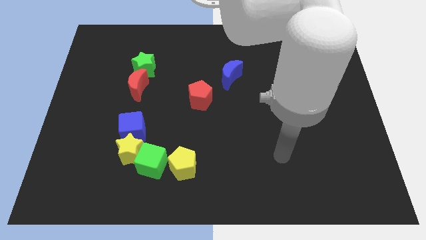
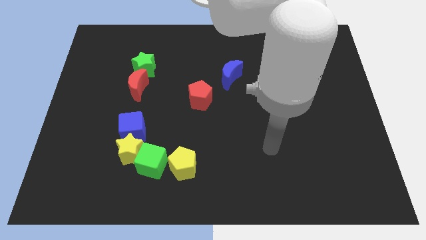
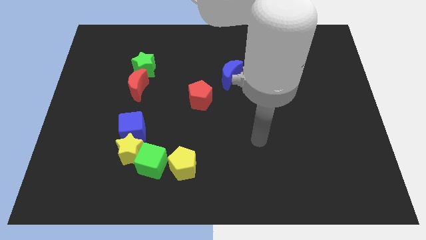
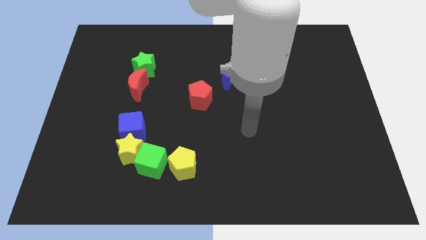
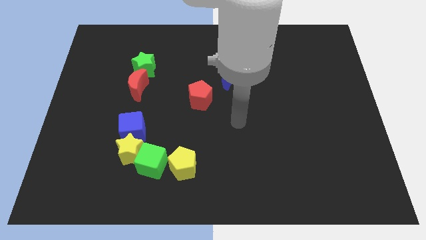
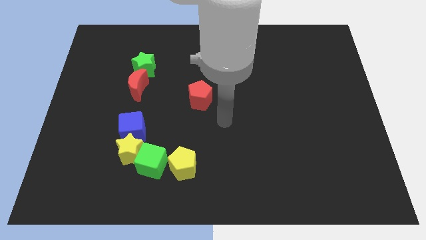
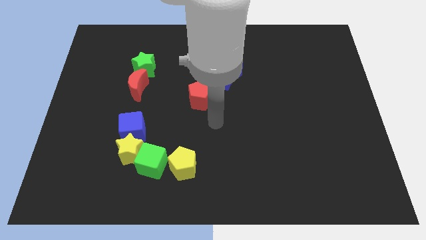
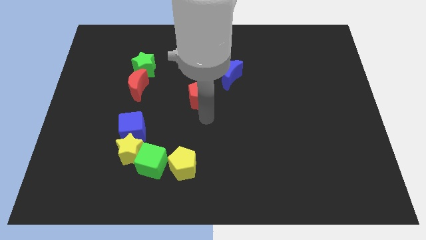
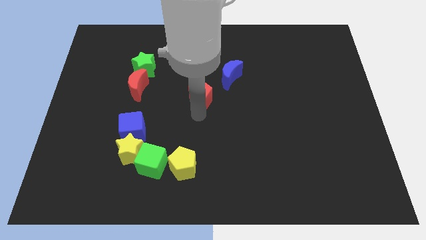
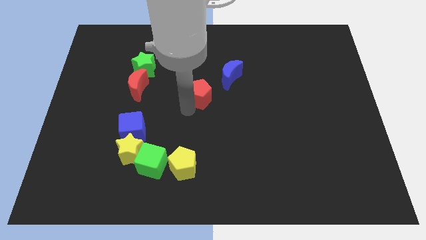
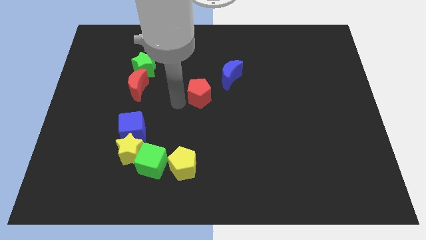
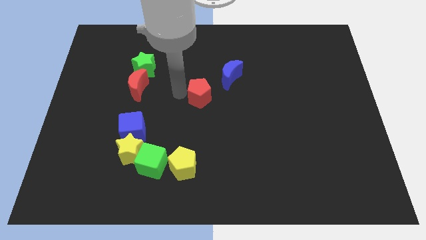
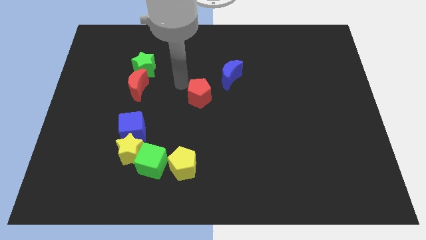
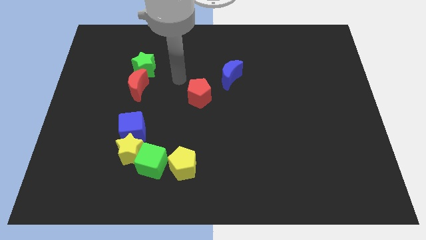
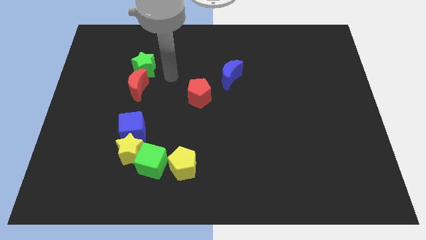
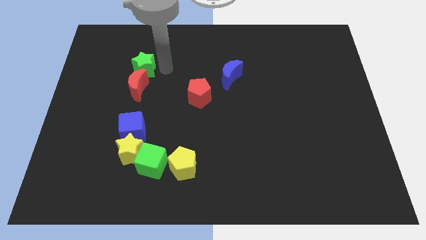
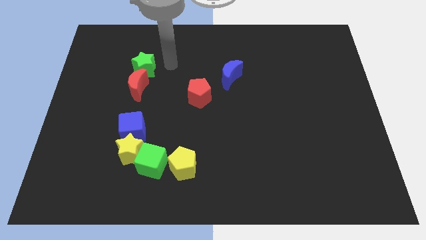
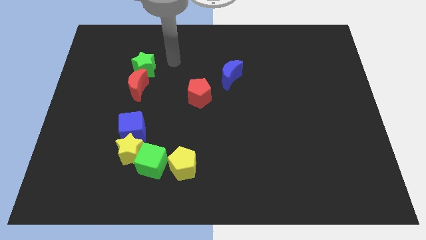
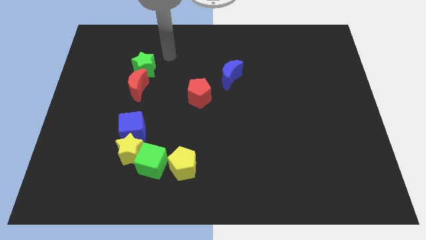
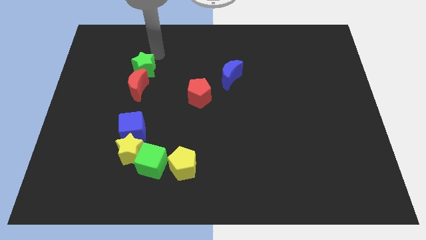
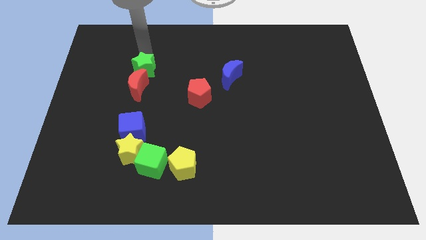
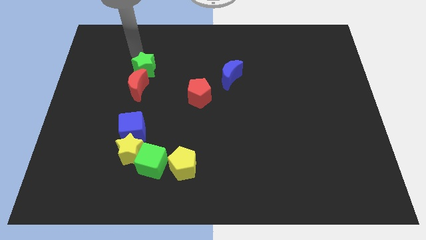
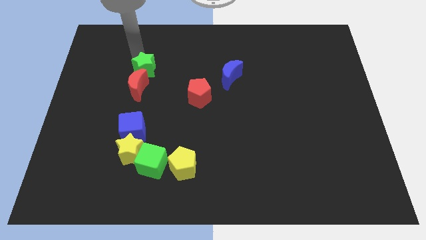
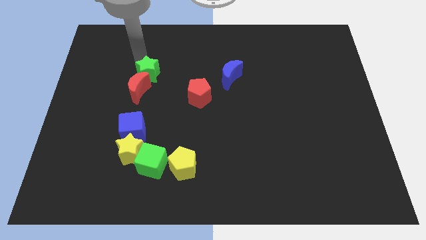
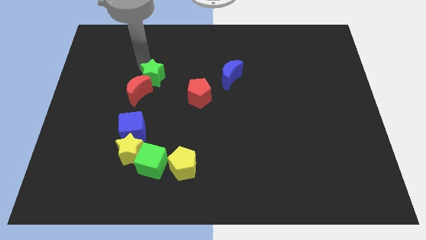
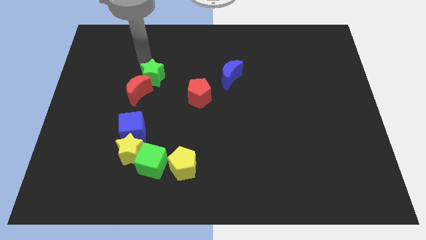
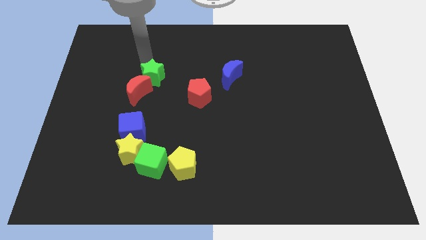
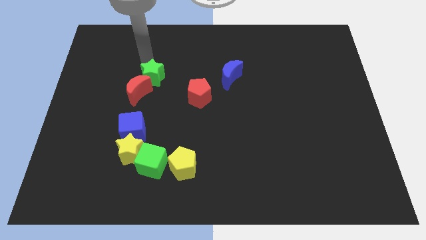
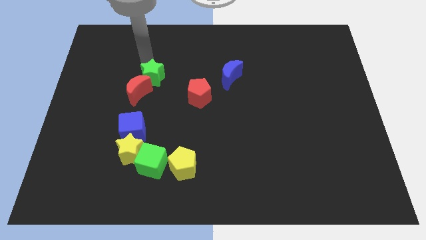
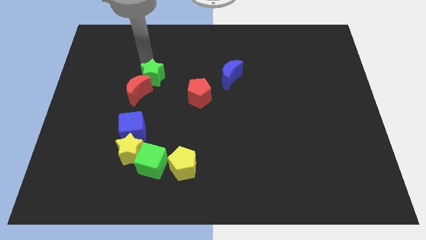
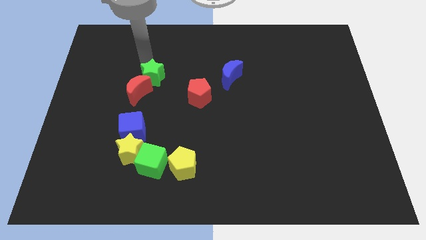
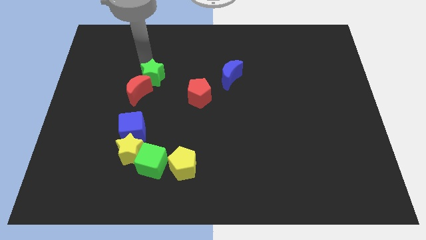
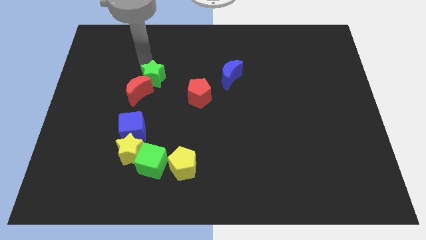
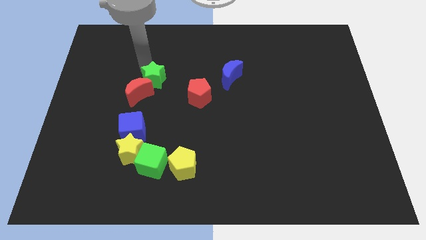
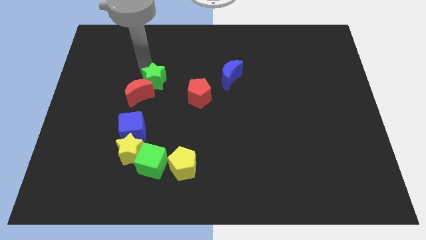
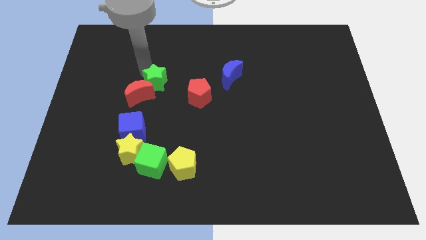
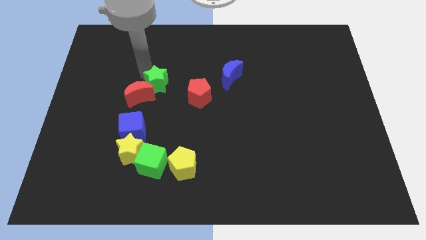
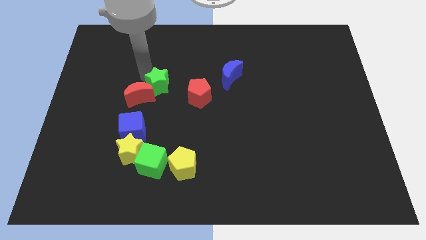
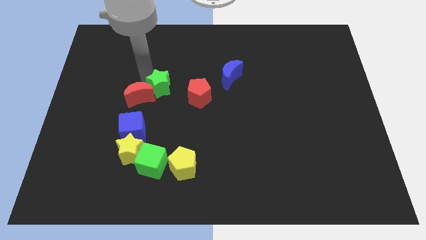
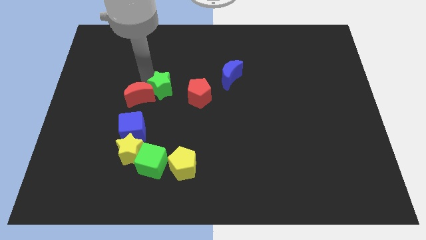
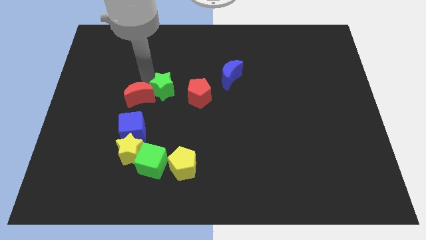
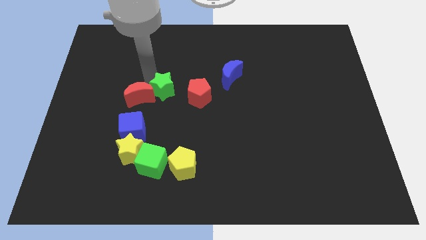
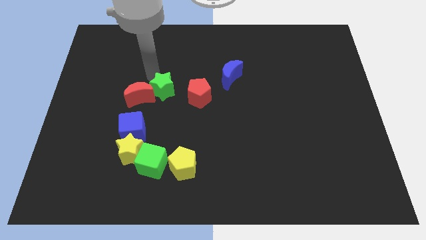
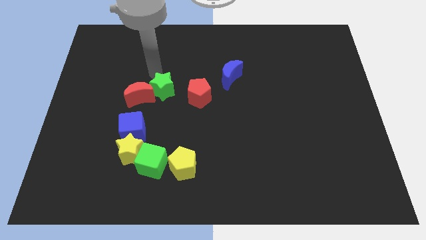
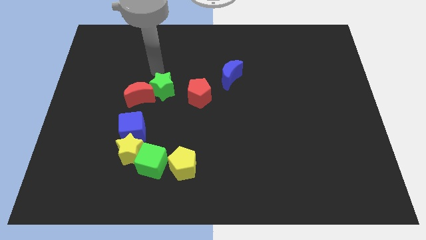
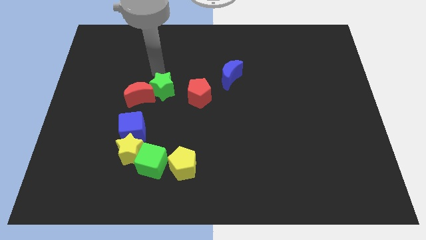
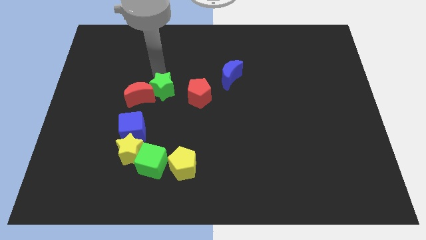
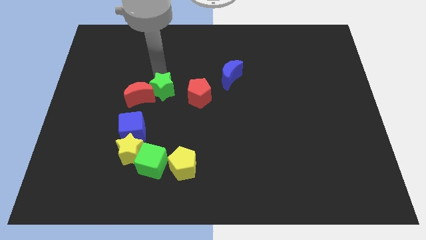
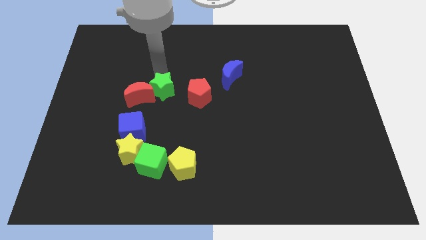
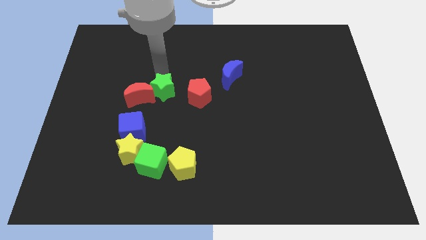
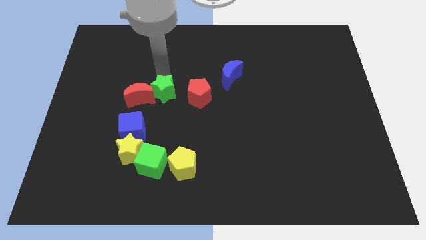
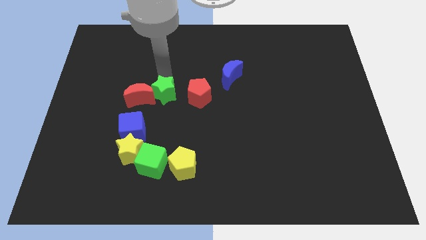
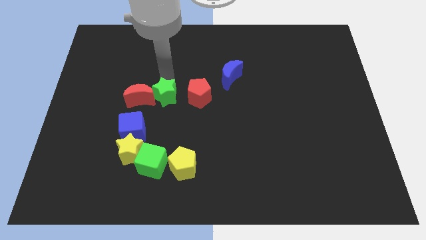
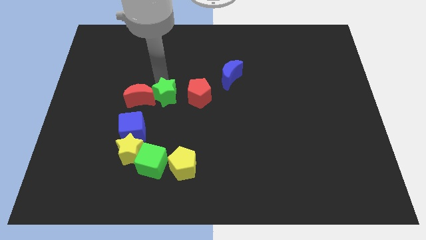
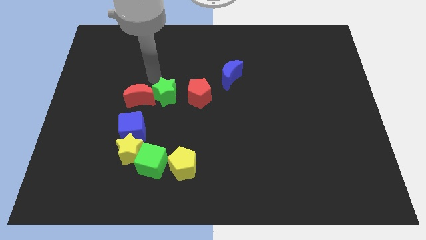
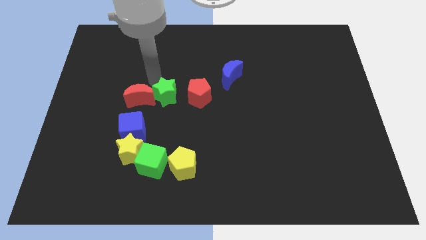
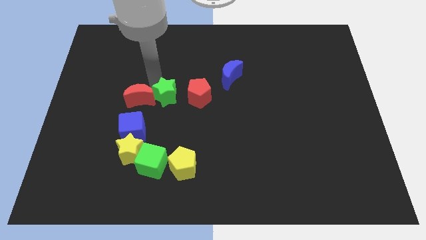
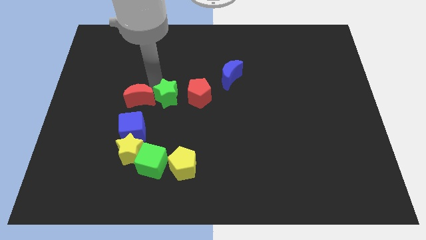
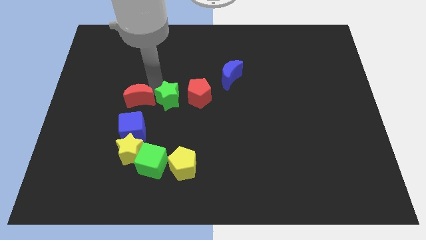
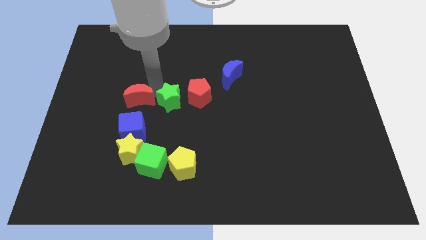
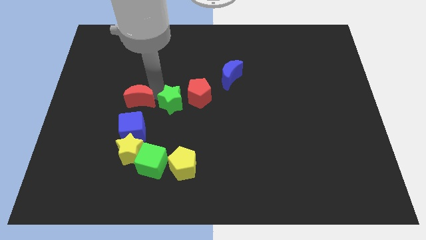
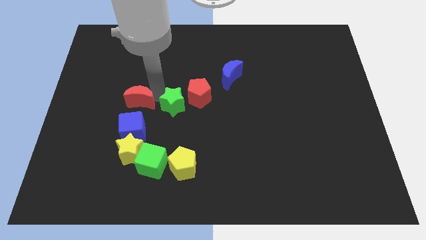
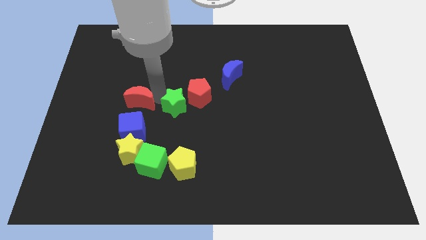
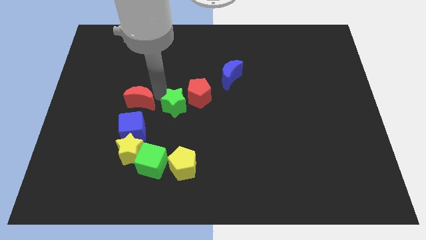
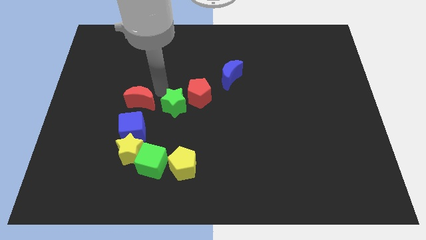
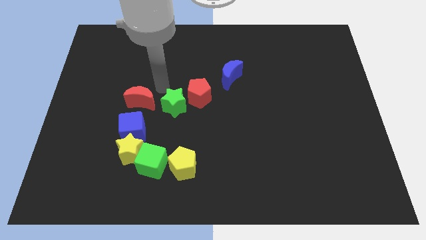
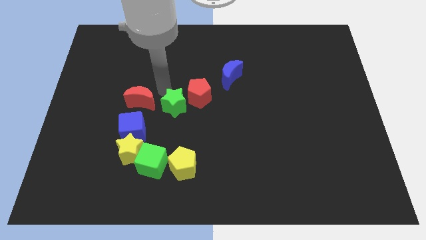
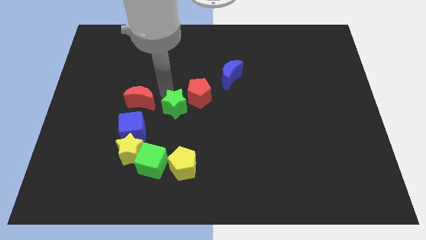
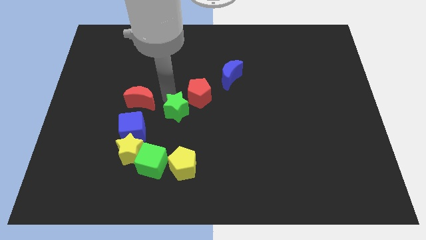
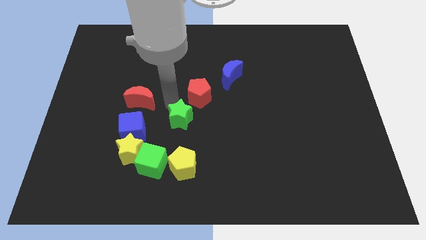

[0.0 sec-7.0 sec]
put the green star to the bottom side of the red pentagon
